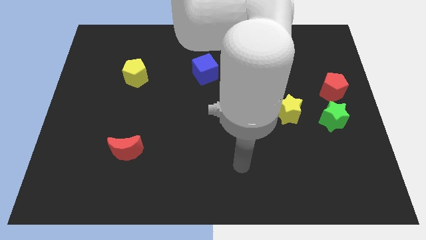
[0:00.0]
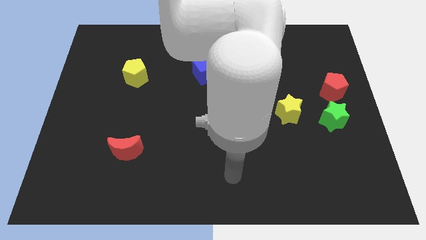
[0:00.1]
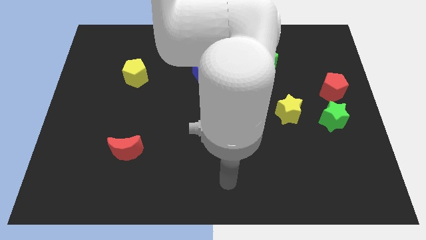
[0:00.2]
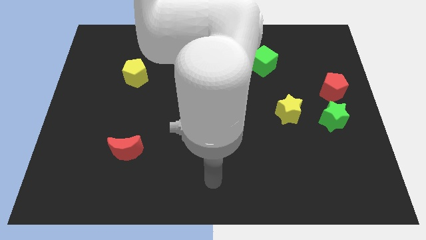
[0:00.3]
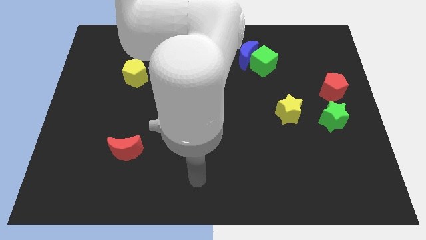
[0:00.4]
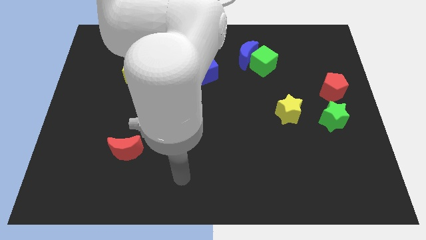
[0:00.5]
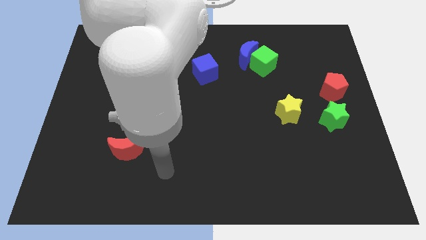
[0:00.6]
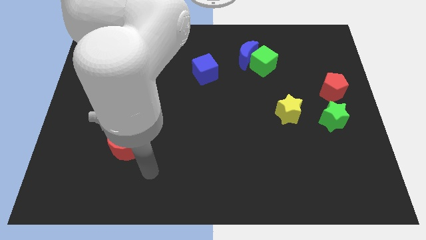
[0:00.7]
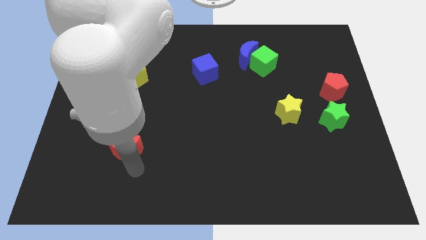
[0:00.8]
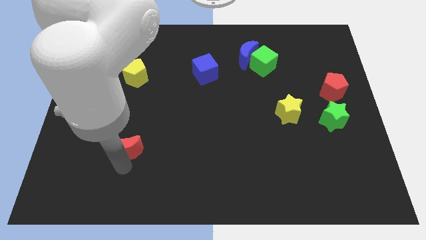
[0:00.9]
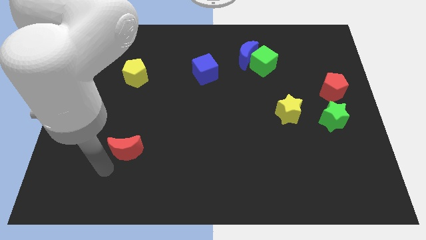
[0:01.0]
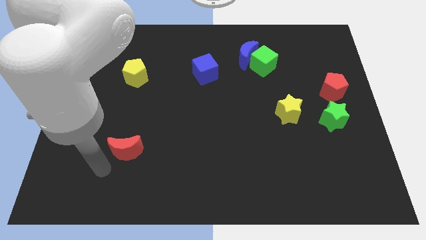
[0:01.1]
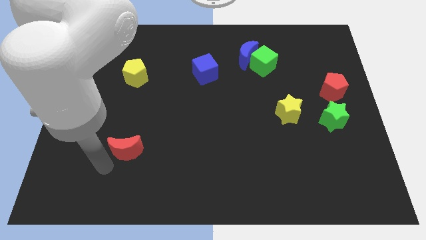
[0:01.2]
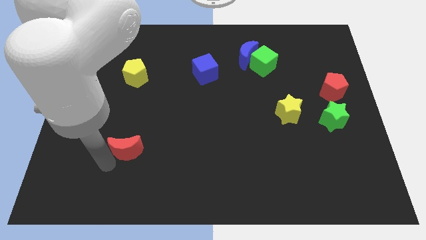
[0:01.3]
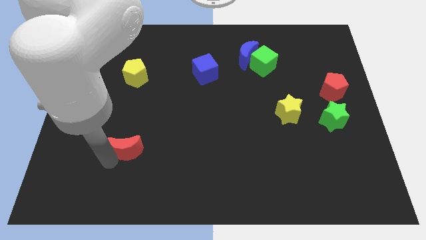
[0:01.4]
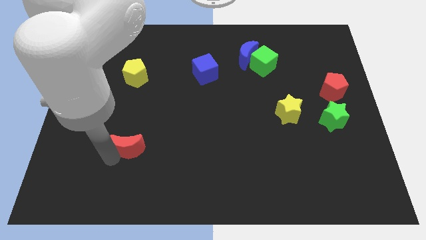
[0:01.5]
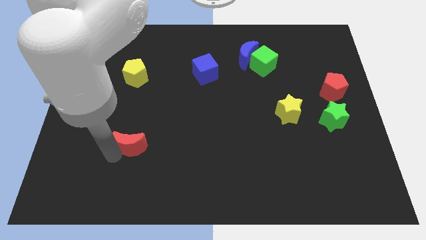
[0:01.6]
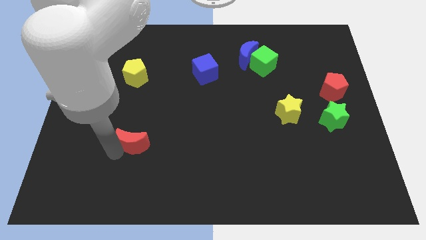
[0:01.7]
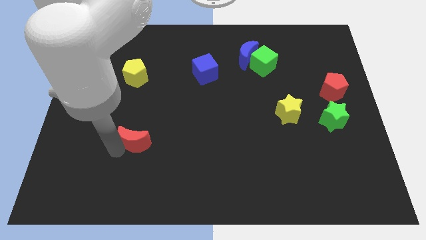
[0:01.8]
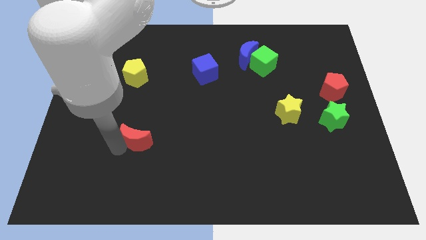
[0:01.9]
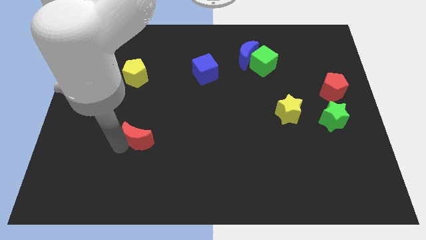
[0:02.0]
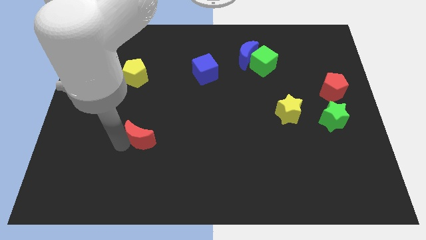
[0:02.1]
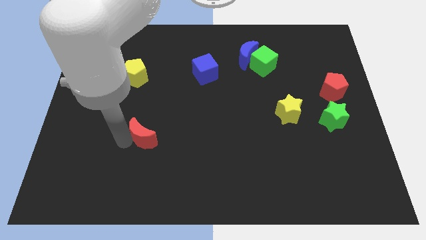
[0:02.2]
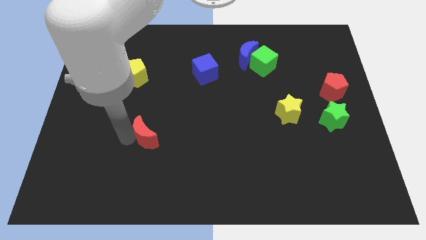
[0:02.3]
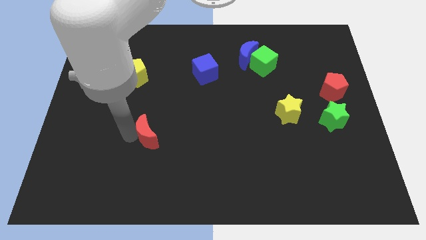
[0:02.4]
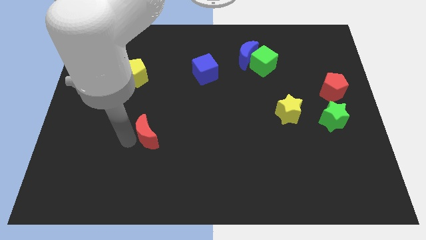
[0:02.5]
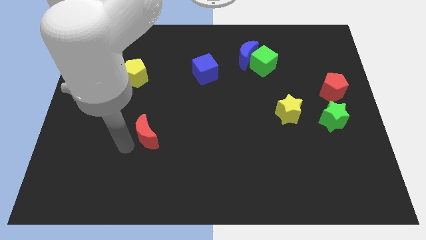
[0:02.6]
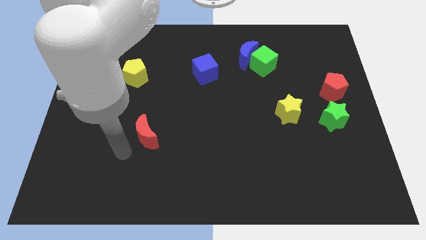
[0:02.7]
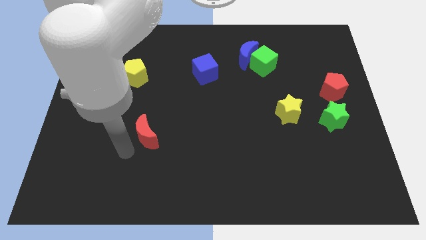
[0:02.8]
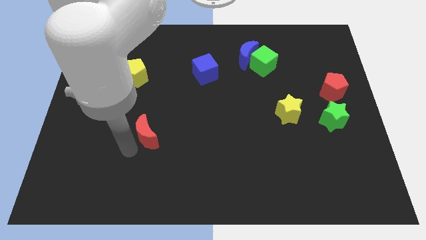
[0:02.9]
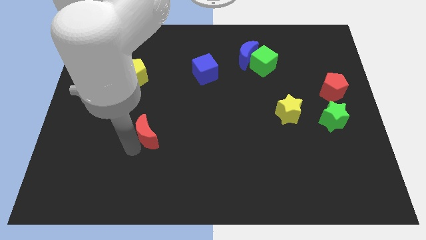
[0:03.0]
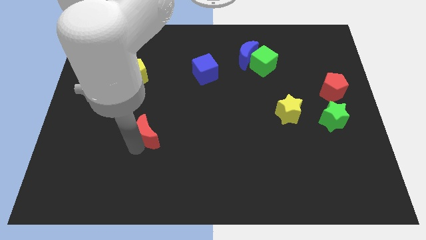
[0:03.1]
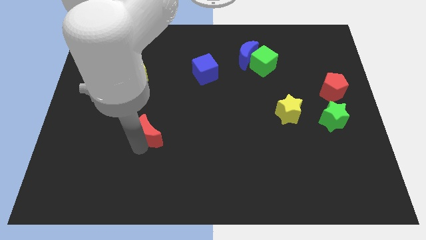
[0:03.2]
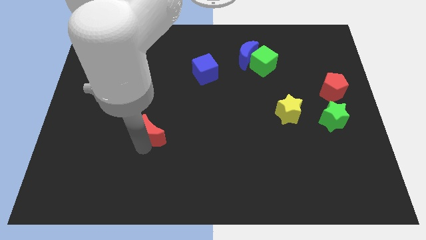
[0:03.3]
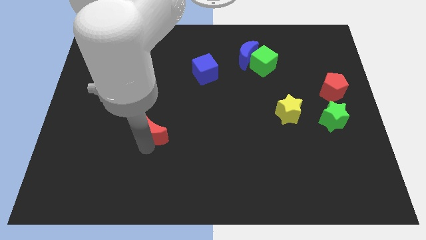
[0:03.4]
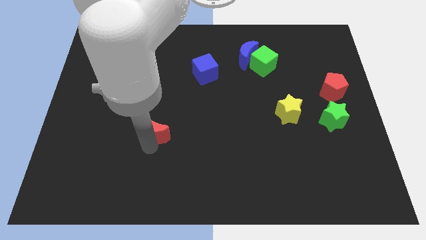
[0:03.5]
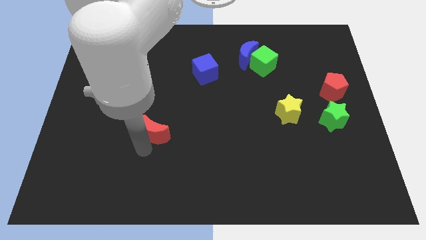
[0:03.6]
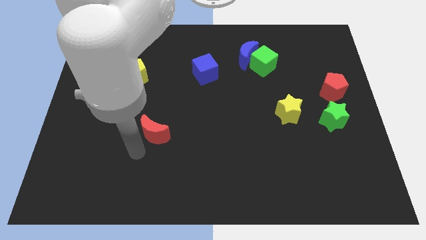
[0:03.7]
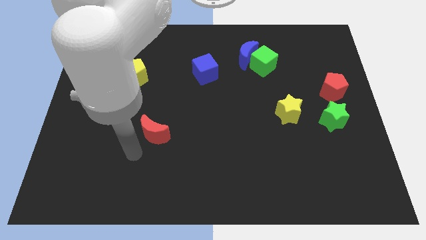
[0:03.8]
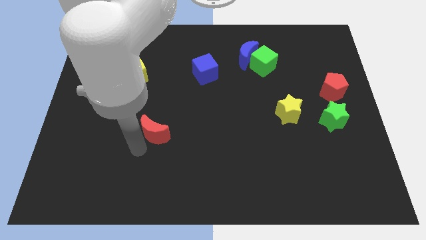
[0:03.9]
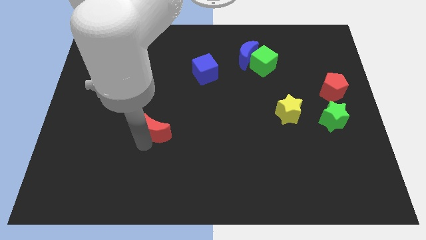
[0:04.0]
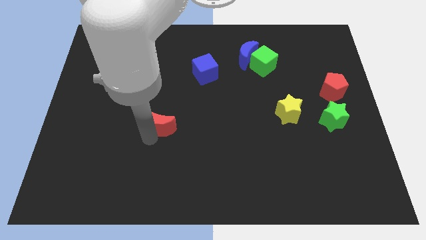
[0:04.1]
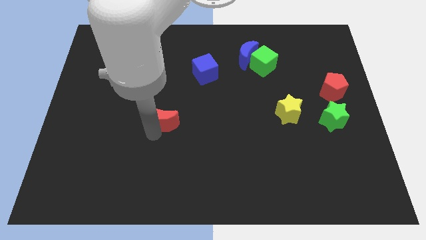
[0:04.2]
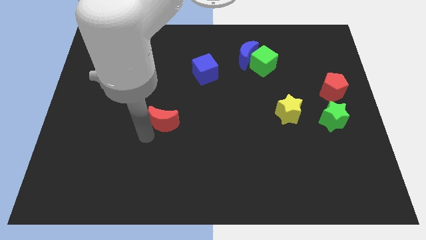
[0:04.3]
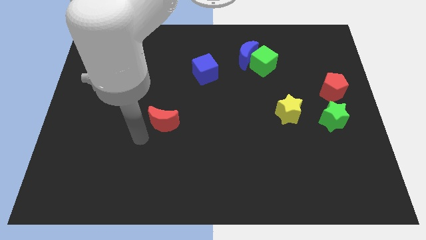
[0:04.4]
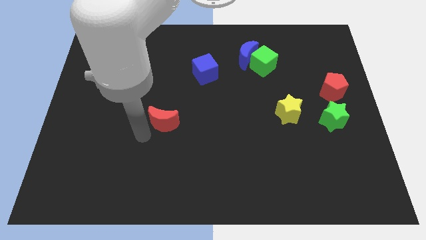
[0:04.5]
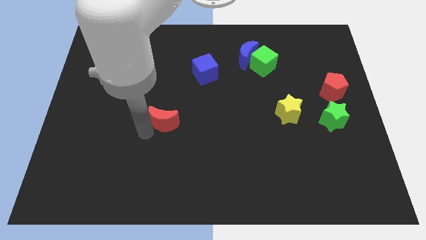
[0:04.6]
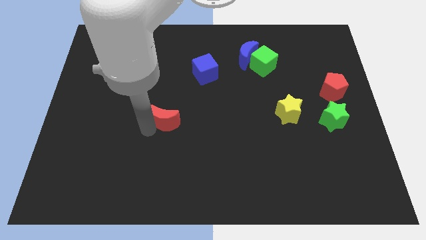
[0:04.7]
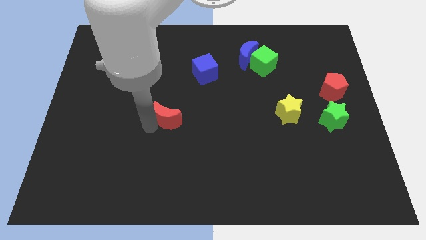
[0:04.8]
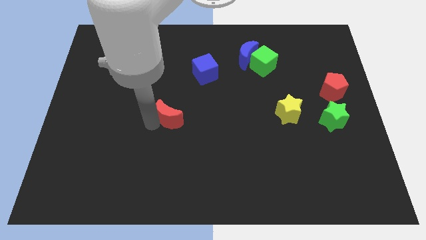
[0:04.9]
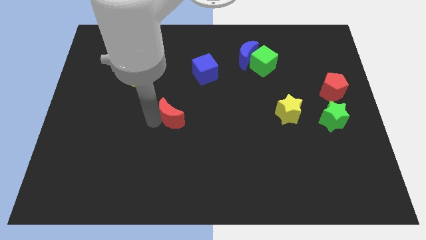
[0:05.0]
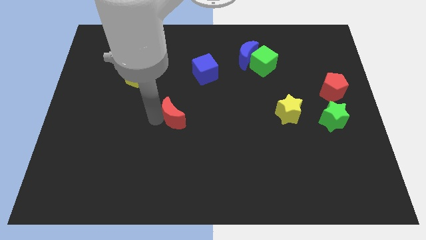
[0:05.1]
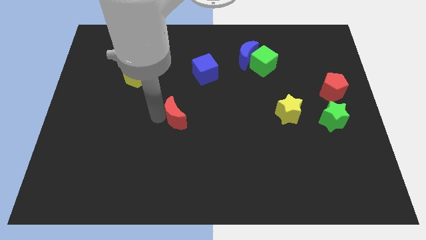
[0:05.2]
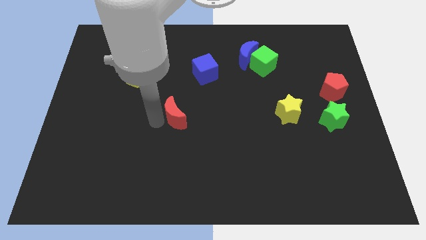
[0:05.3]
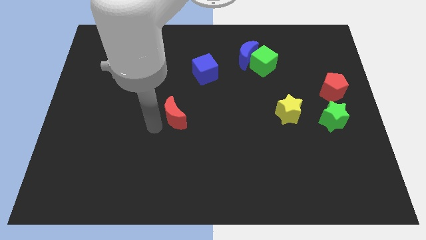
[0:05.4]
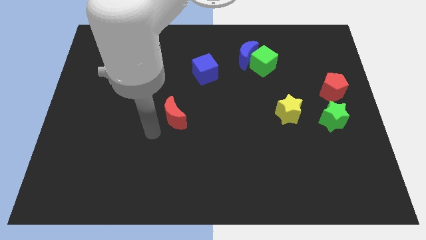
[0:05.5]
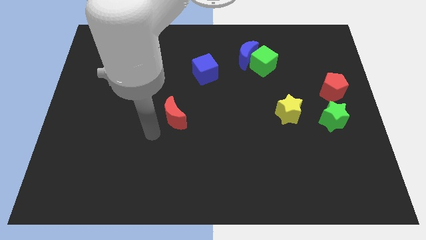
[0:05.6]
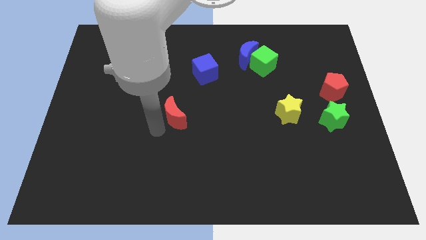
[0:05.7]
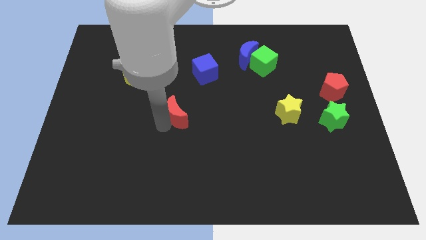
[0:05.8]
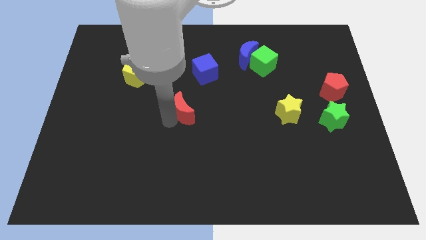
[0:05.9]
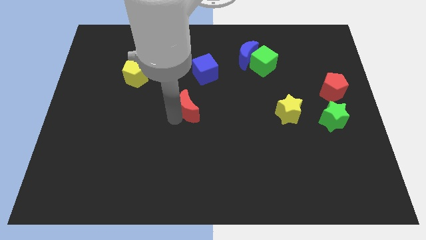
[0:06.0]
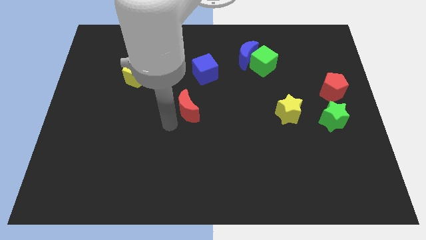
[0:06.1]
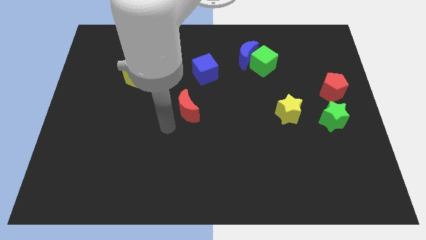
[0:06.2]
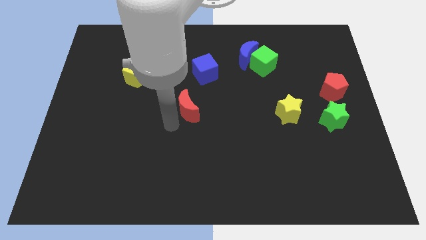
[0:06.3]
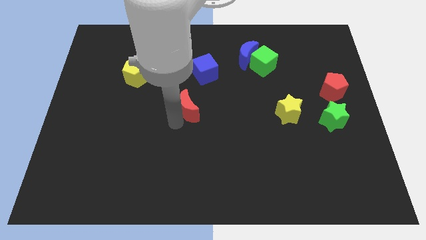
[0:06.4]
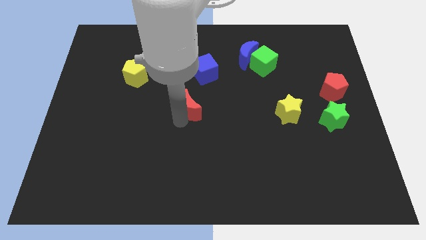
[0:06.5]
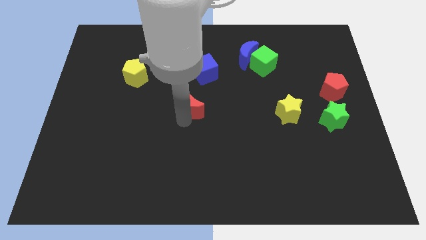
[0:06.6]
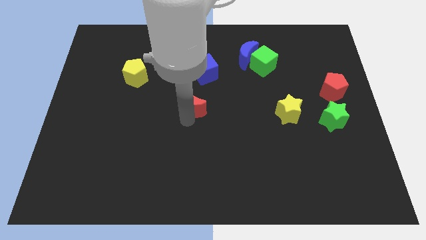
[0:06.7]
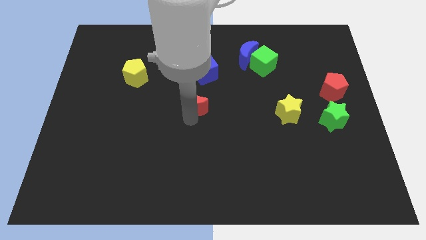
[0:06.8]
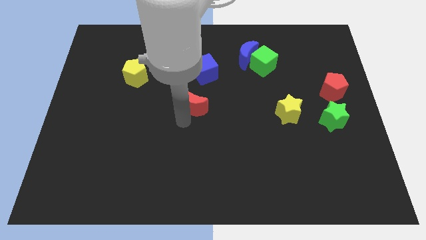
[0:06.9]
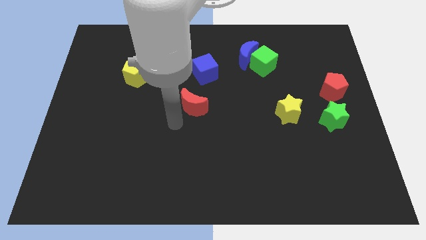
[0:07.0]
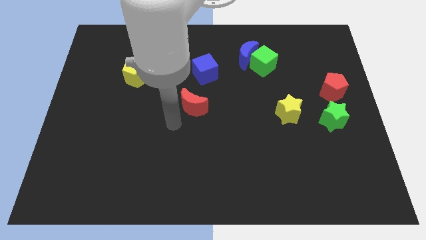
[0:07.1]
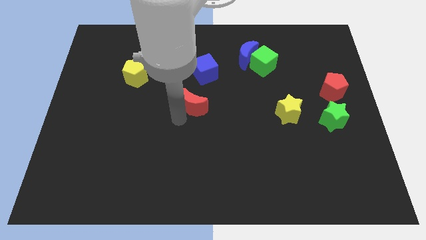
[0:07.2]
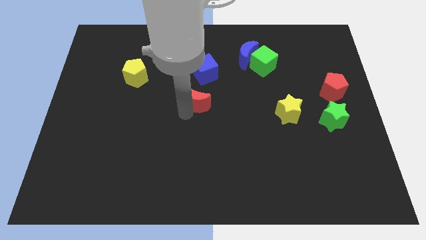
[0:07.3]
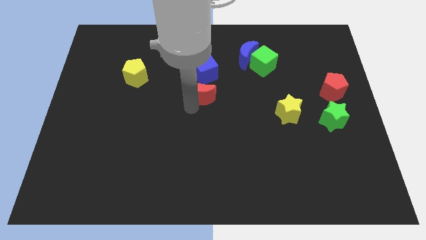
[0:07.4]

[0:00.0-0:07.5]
slide the red moon up and right diagonally

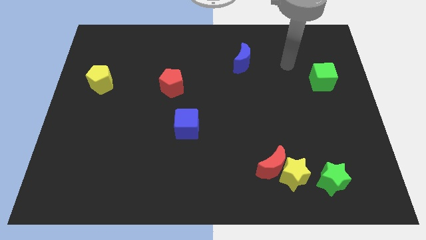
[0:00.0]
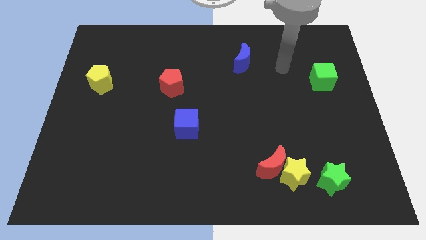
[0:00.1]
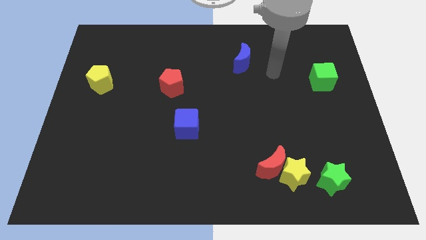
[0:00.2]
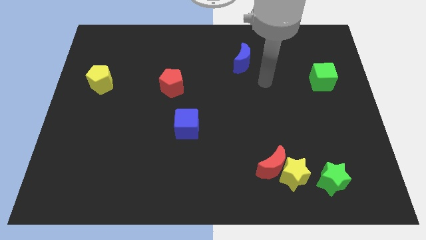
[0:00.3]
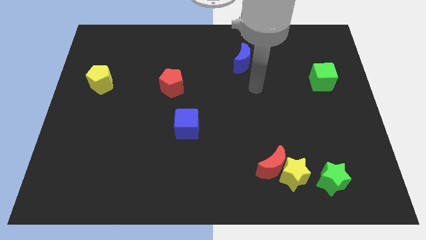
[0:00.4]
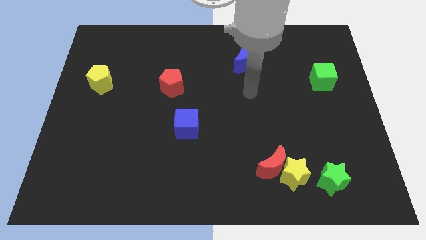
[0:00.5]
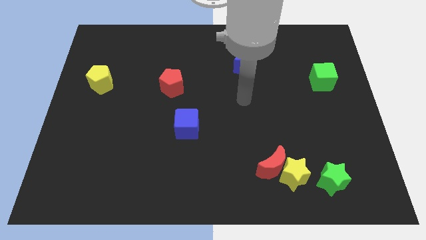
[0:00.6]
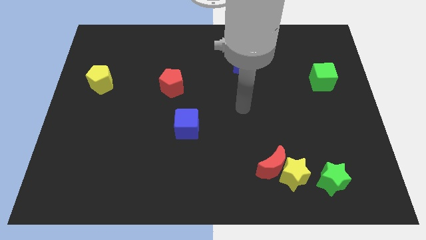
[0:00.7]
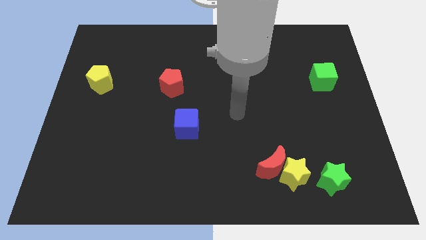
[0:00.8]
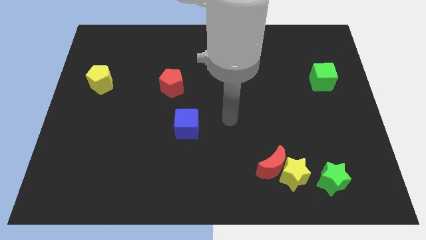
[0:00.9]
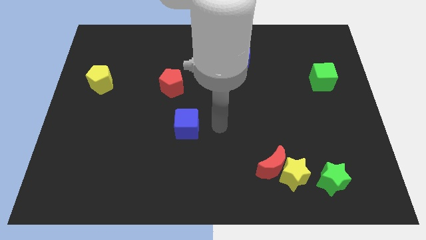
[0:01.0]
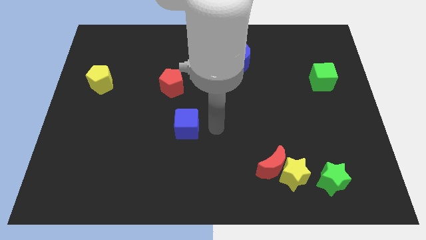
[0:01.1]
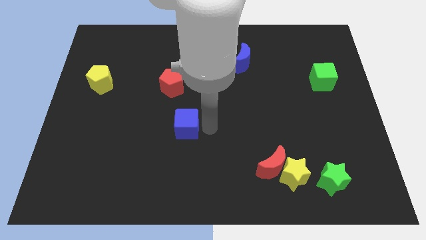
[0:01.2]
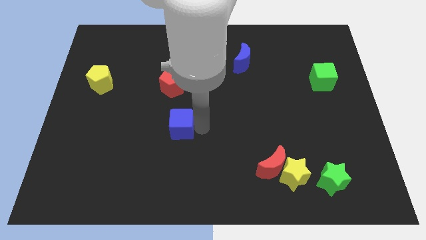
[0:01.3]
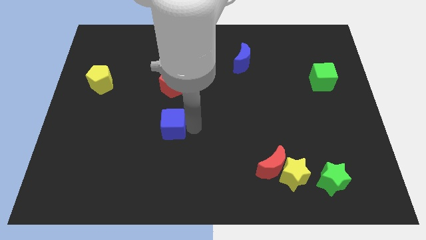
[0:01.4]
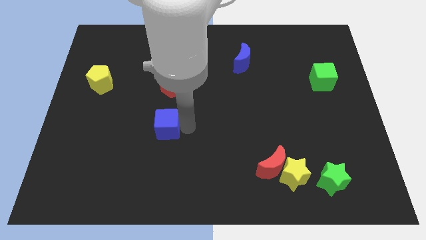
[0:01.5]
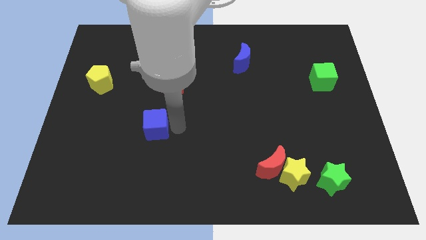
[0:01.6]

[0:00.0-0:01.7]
push the blue cube a bit left
